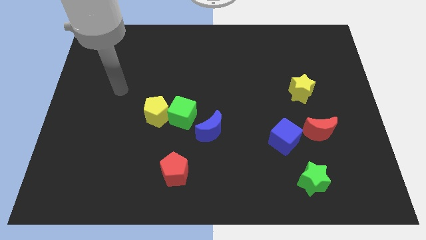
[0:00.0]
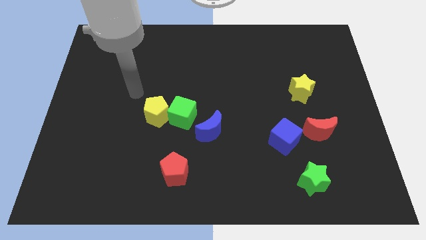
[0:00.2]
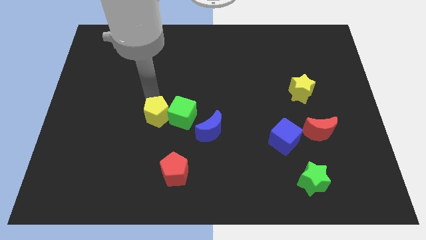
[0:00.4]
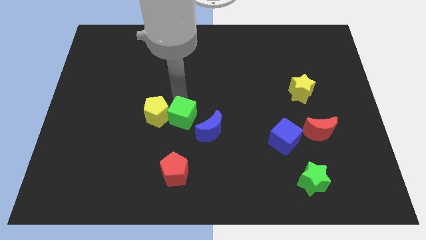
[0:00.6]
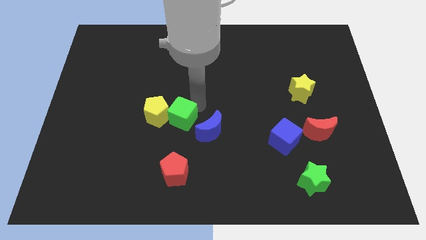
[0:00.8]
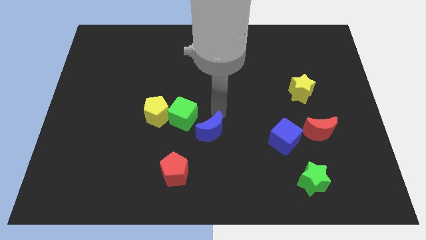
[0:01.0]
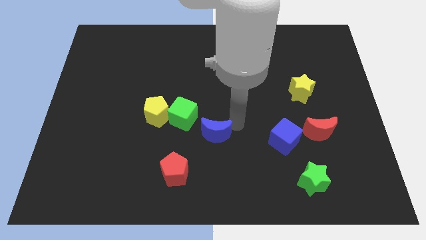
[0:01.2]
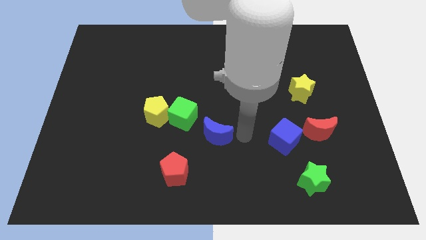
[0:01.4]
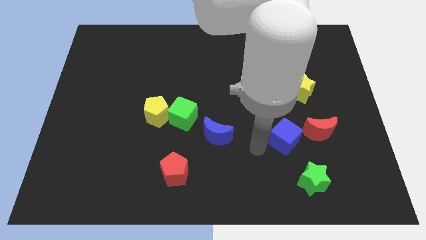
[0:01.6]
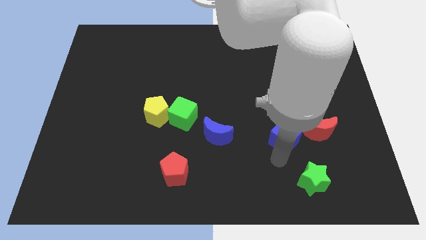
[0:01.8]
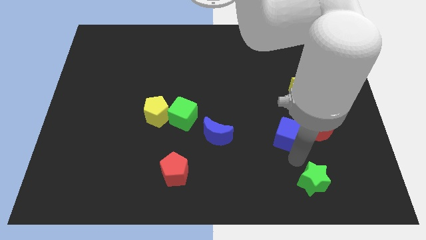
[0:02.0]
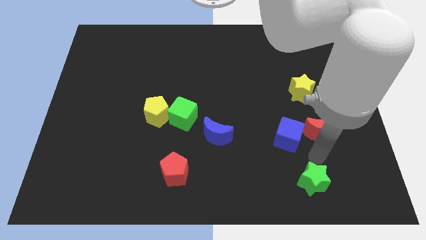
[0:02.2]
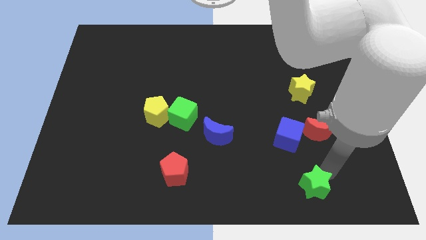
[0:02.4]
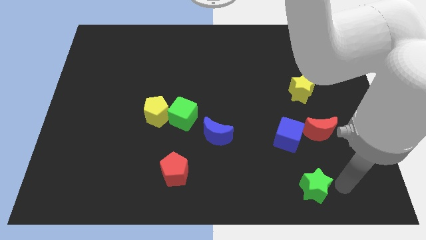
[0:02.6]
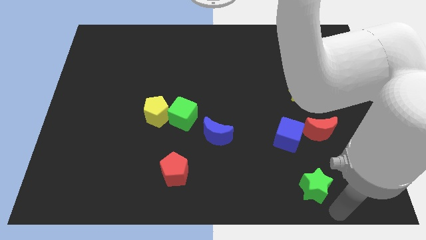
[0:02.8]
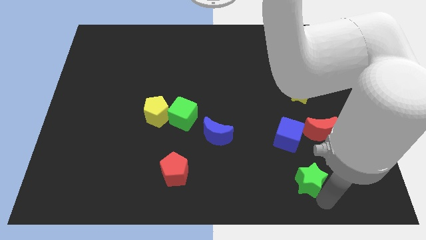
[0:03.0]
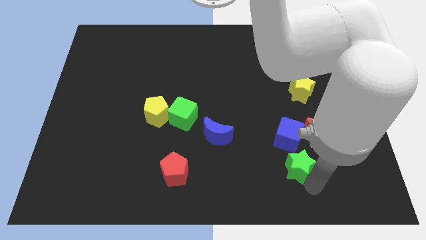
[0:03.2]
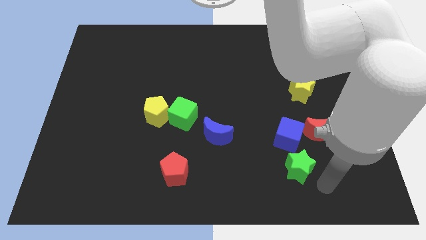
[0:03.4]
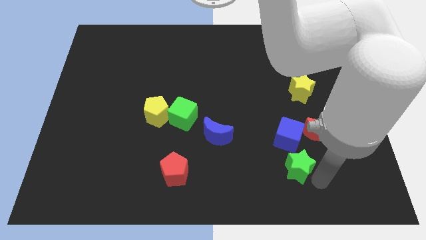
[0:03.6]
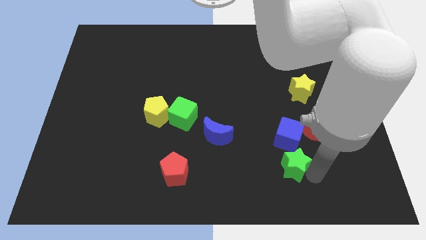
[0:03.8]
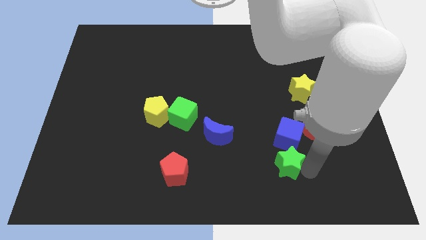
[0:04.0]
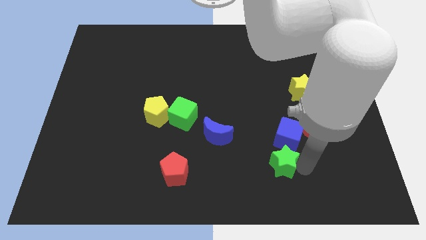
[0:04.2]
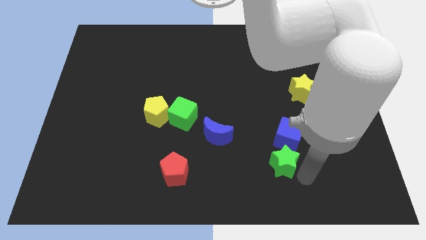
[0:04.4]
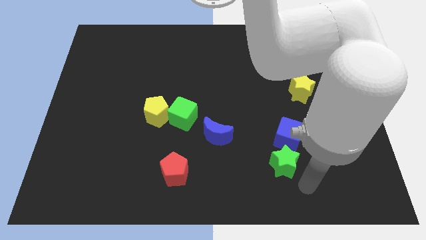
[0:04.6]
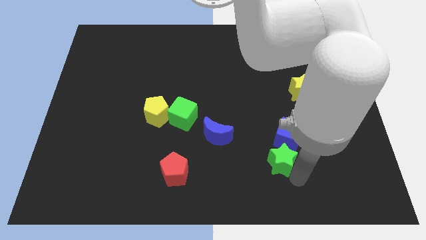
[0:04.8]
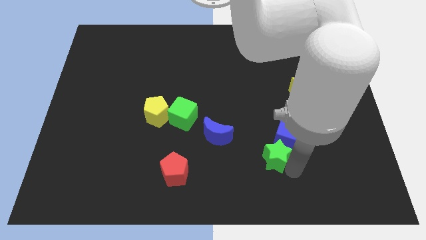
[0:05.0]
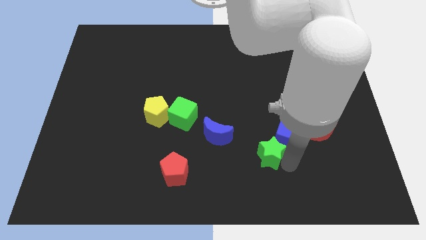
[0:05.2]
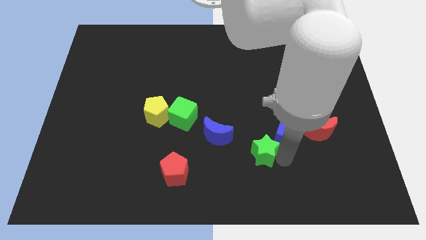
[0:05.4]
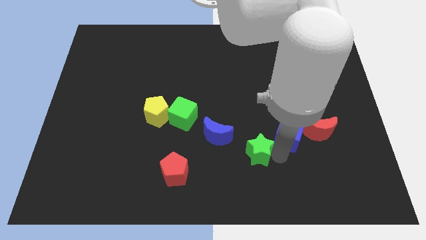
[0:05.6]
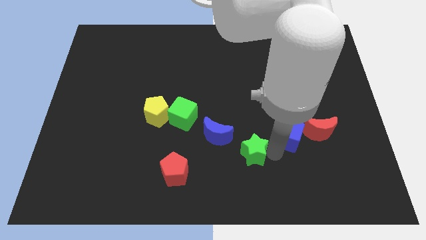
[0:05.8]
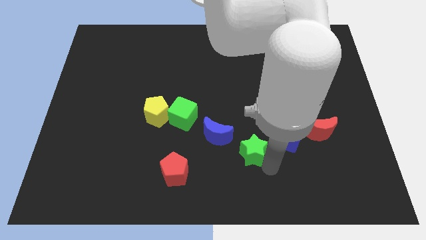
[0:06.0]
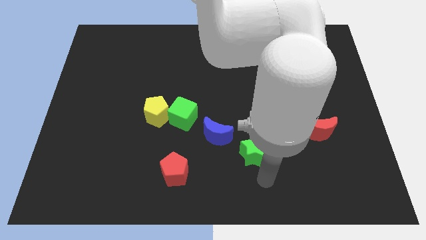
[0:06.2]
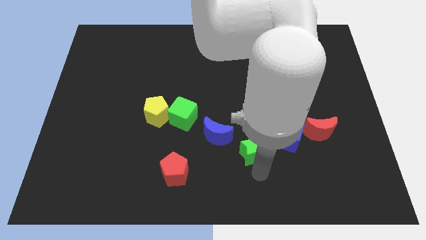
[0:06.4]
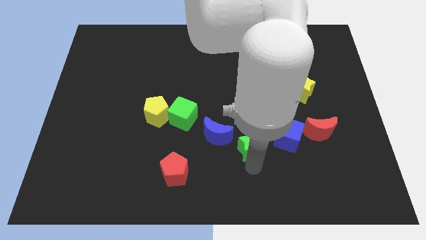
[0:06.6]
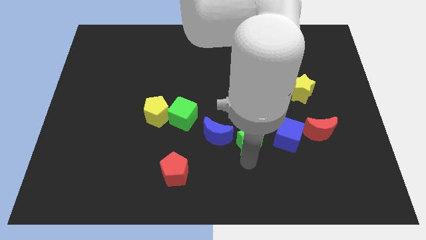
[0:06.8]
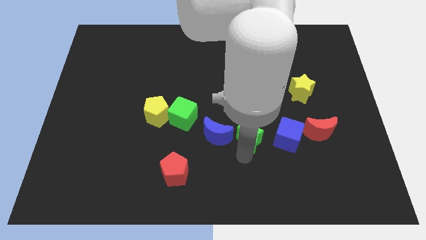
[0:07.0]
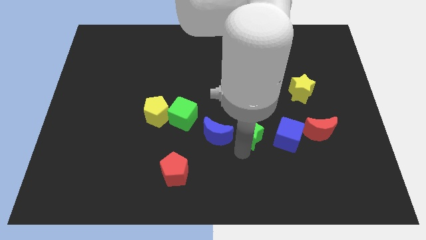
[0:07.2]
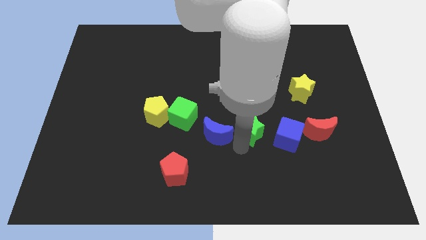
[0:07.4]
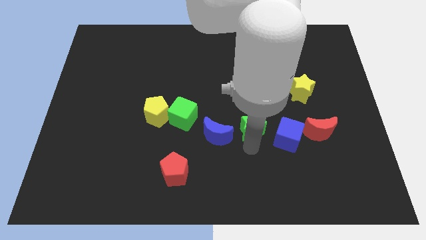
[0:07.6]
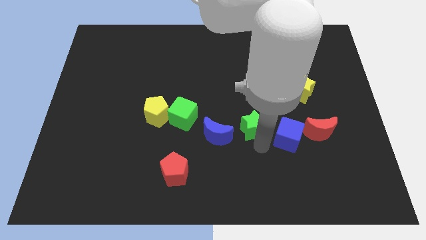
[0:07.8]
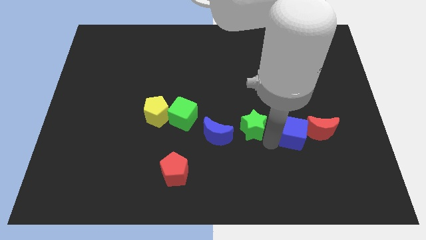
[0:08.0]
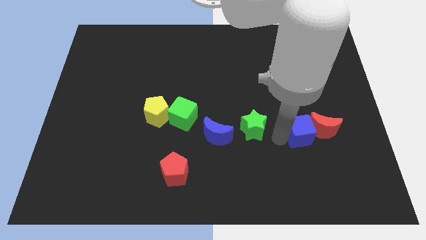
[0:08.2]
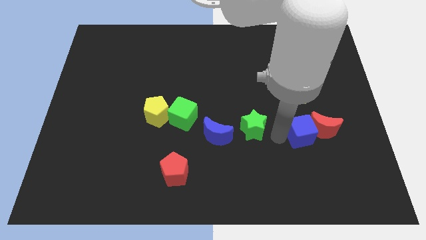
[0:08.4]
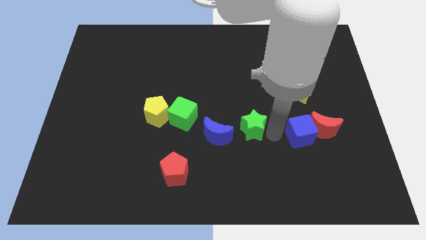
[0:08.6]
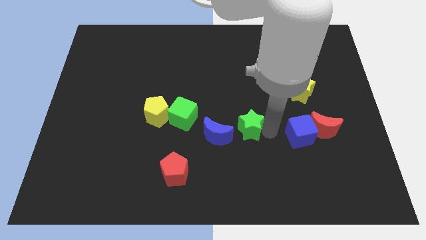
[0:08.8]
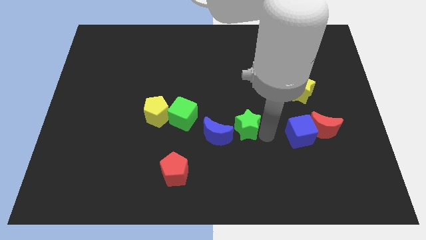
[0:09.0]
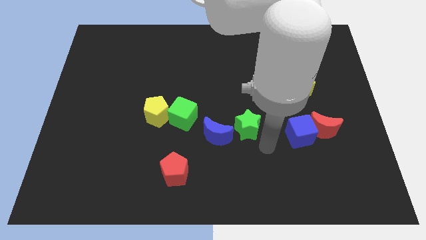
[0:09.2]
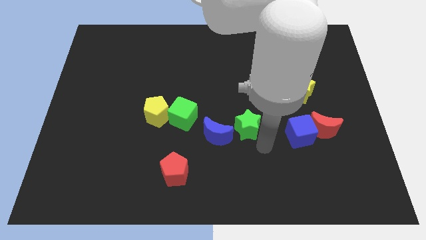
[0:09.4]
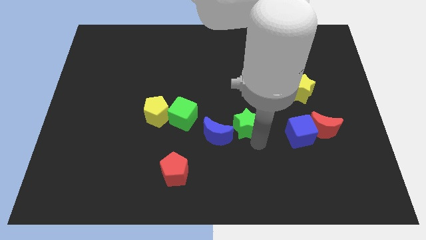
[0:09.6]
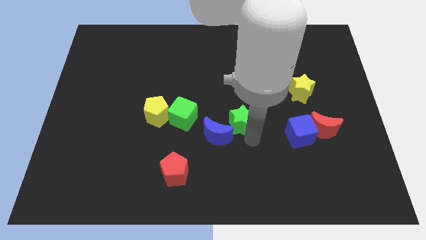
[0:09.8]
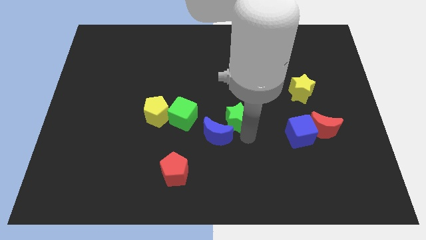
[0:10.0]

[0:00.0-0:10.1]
slide the green star to the top of the blue moon

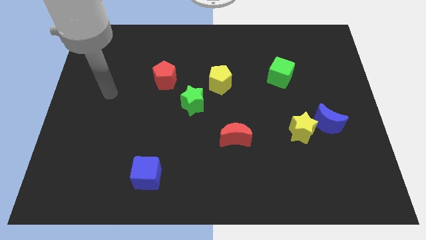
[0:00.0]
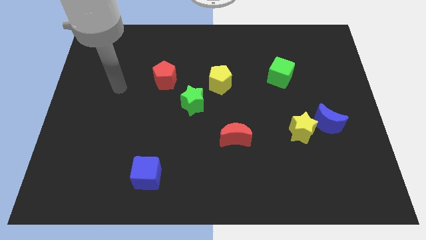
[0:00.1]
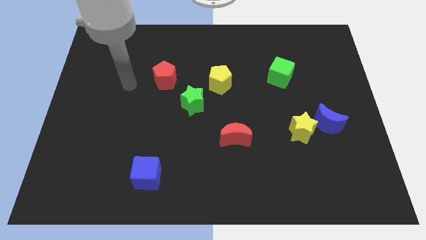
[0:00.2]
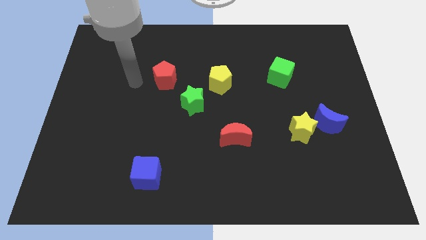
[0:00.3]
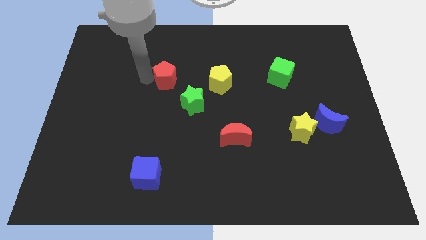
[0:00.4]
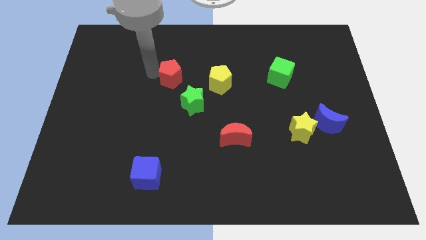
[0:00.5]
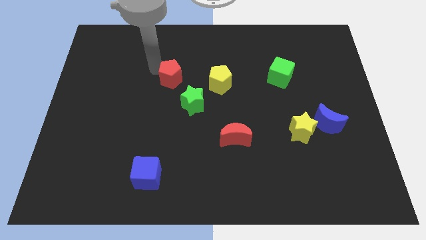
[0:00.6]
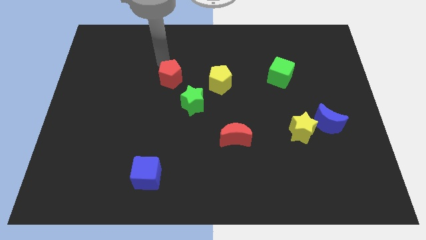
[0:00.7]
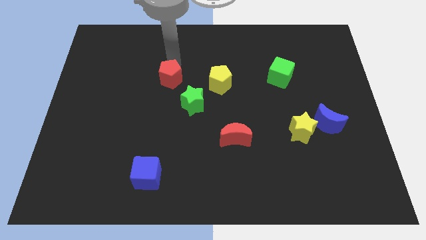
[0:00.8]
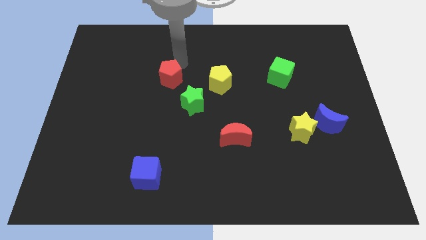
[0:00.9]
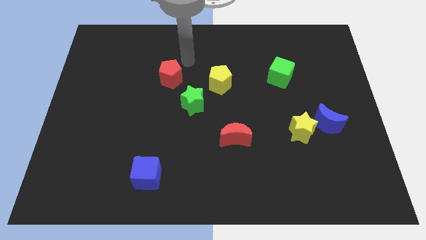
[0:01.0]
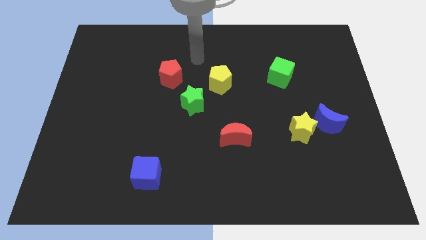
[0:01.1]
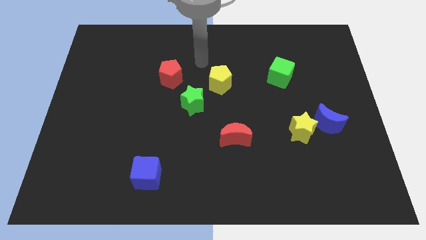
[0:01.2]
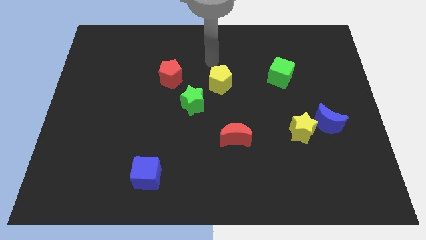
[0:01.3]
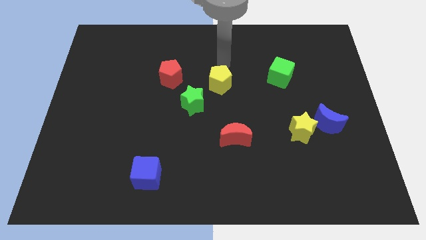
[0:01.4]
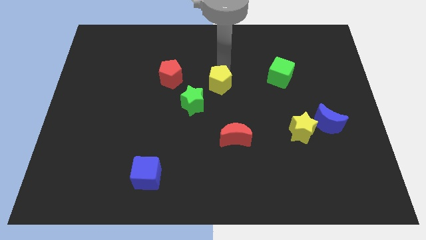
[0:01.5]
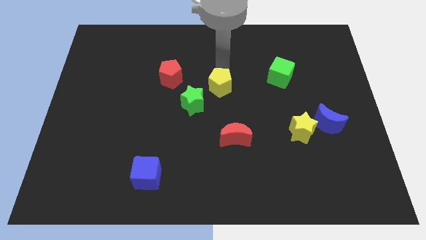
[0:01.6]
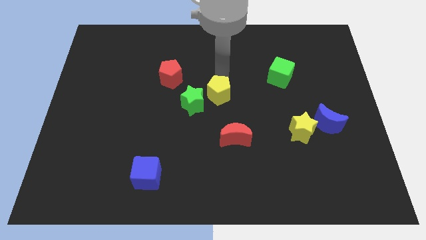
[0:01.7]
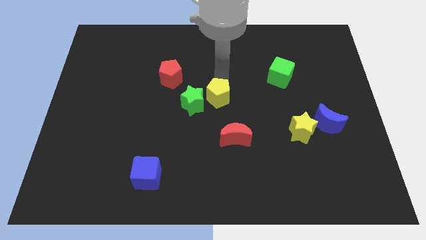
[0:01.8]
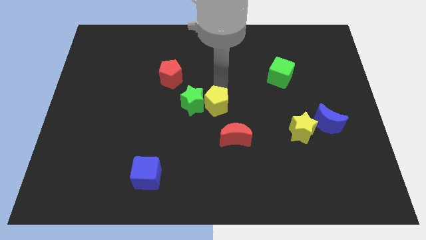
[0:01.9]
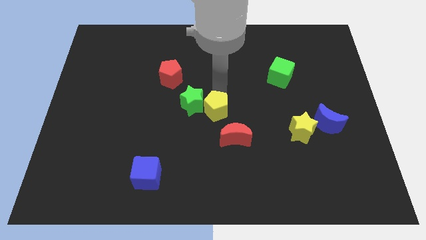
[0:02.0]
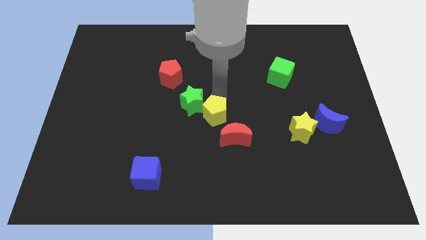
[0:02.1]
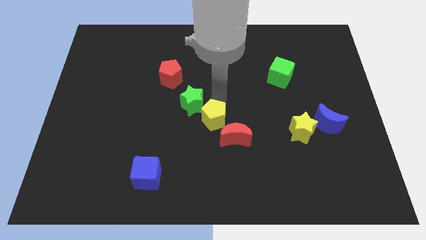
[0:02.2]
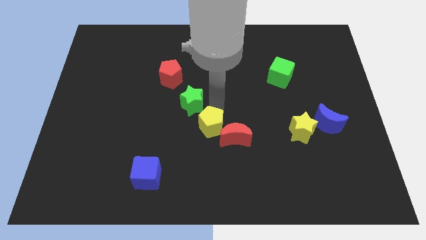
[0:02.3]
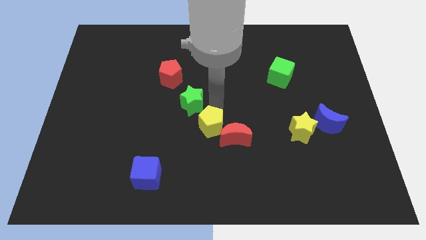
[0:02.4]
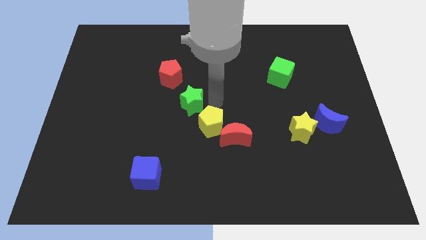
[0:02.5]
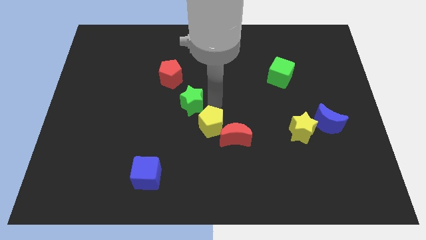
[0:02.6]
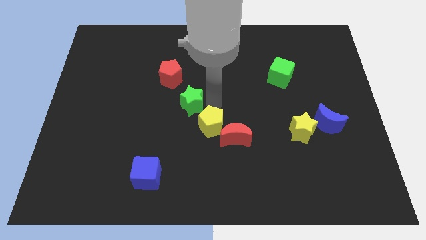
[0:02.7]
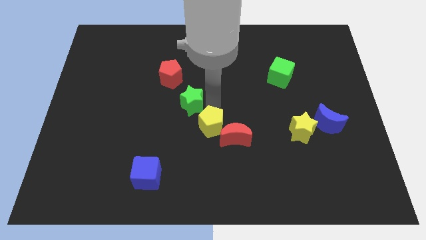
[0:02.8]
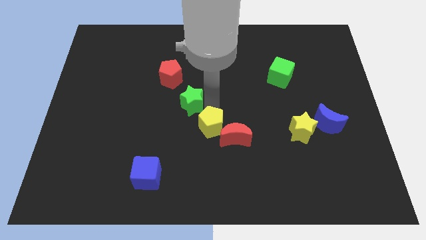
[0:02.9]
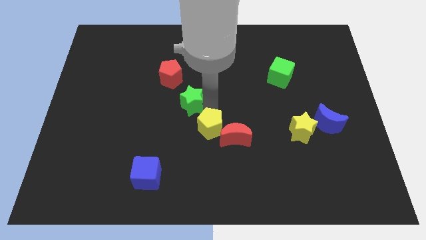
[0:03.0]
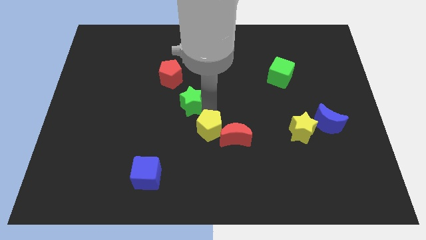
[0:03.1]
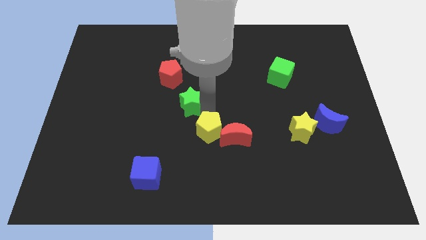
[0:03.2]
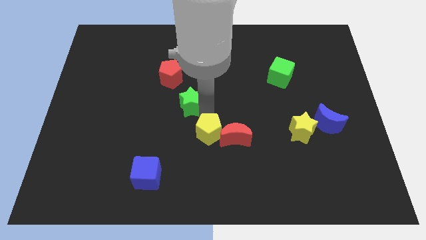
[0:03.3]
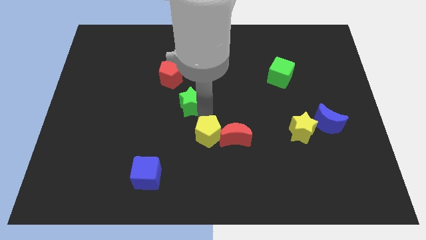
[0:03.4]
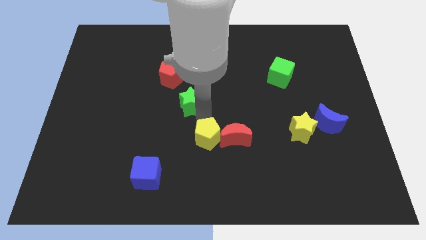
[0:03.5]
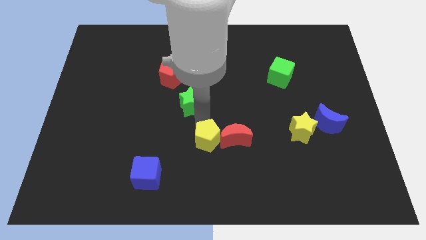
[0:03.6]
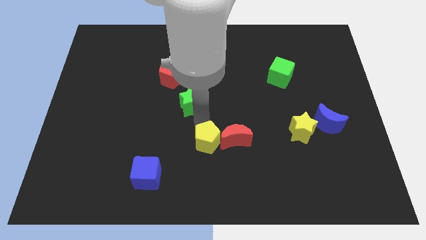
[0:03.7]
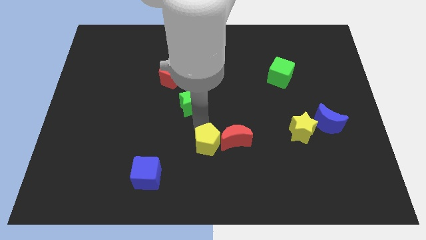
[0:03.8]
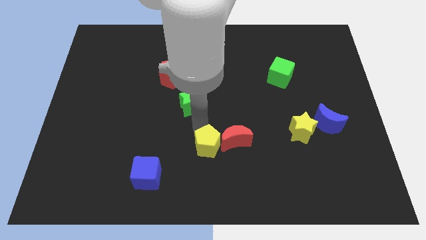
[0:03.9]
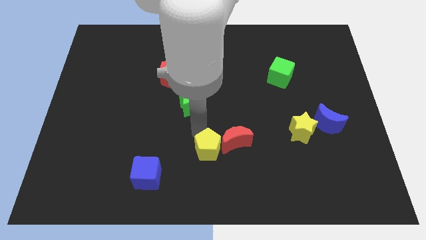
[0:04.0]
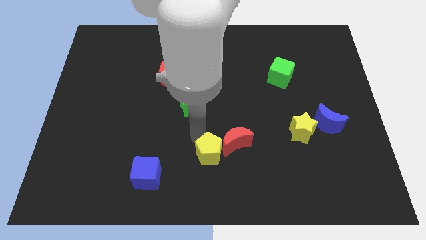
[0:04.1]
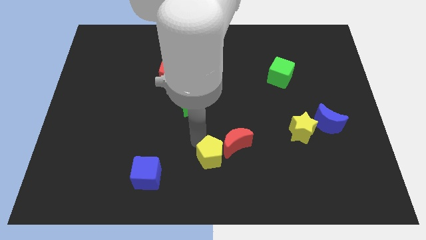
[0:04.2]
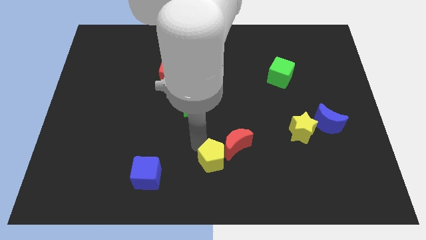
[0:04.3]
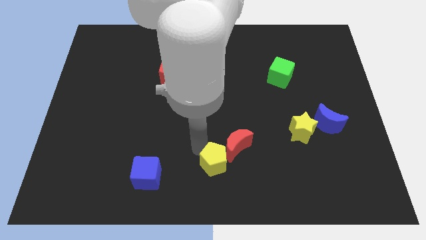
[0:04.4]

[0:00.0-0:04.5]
put the yellow pentagon to the bottom side of the red moon
